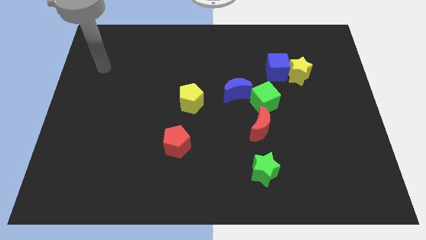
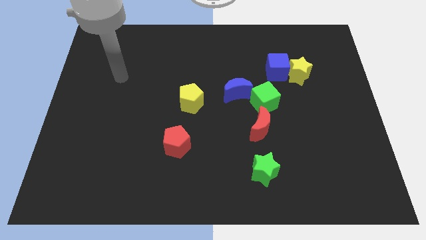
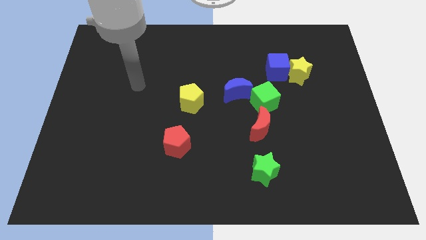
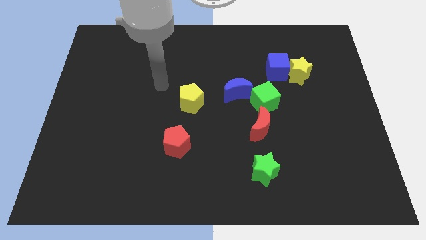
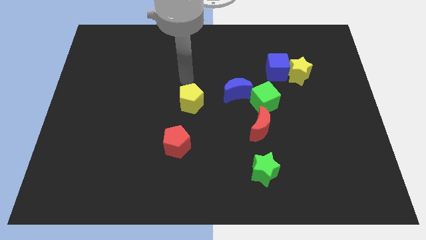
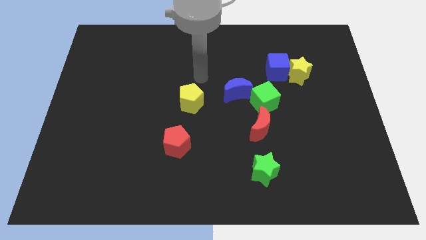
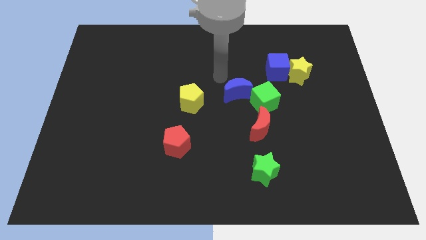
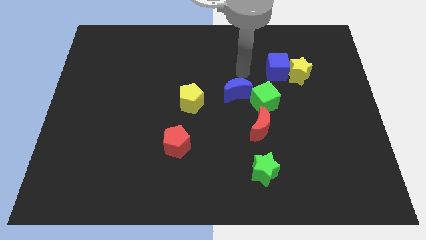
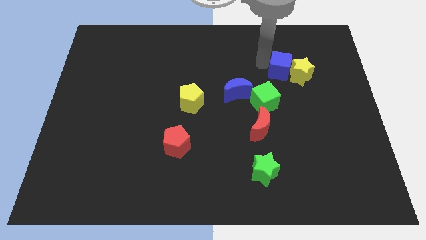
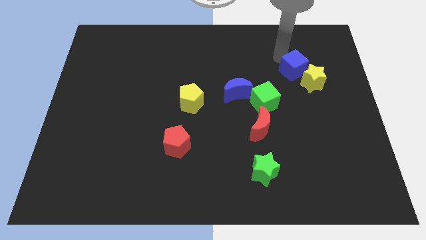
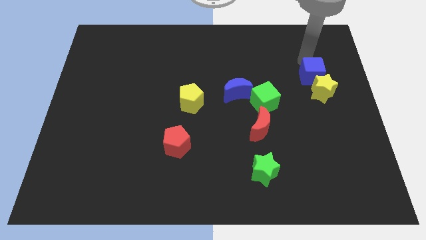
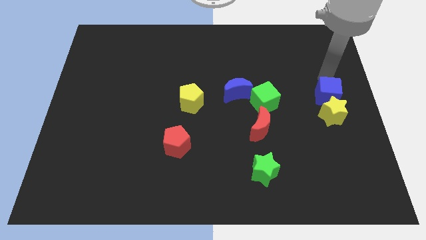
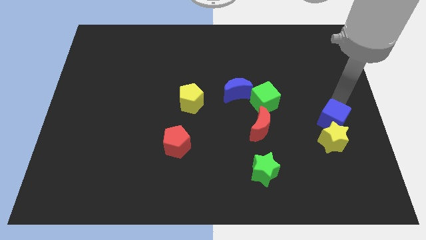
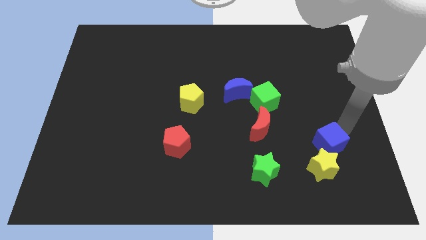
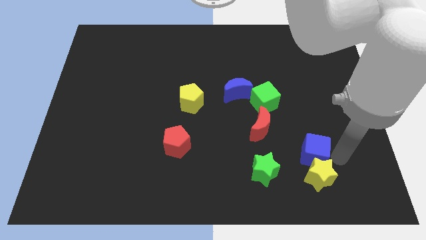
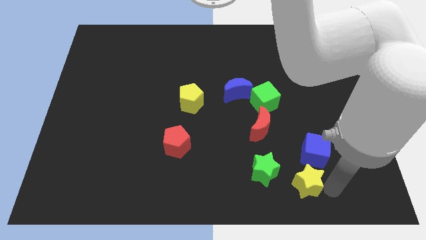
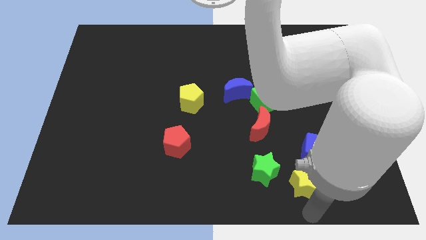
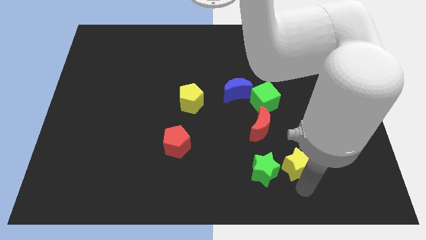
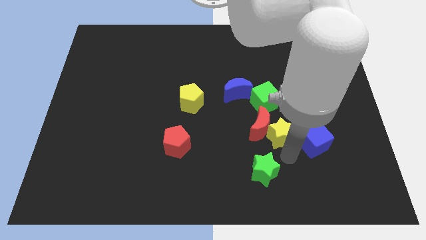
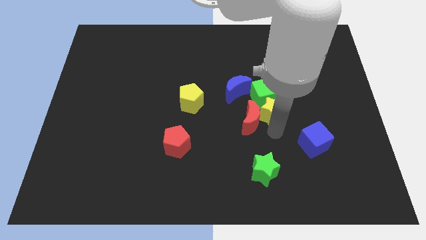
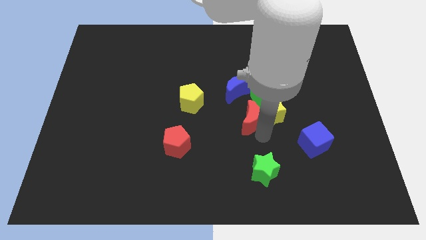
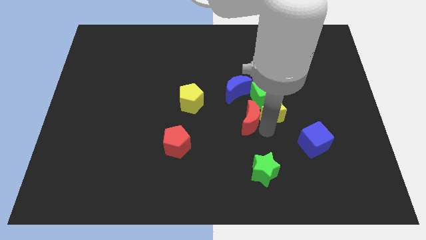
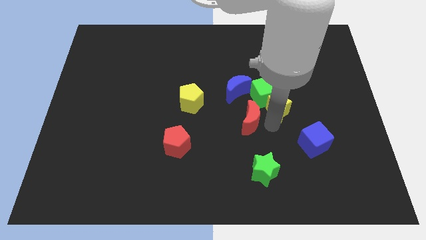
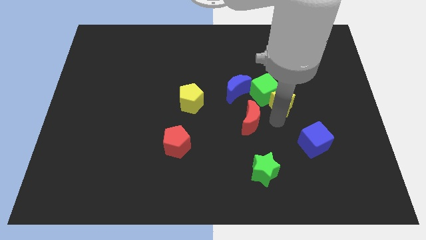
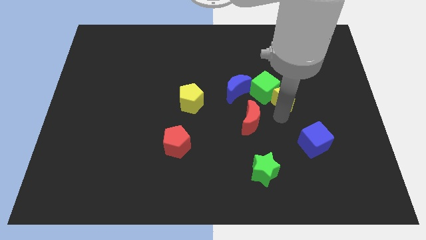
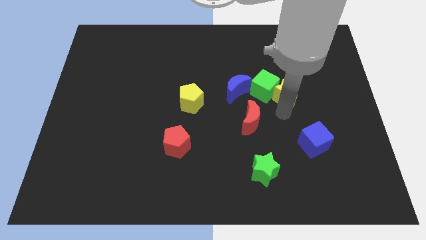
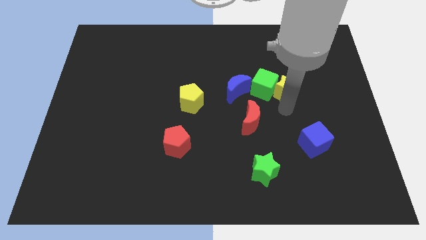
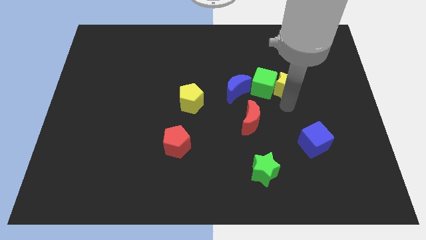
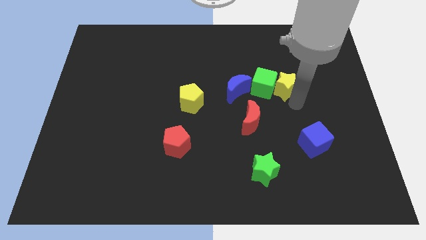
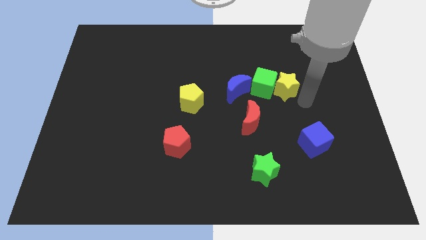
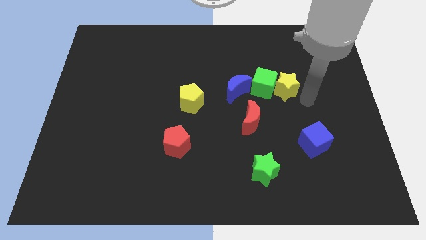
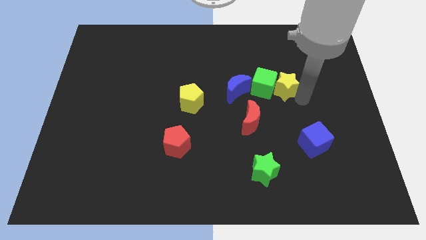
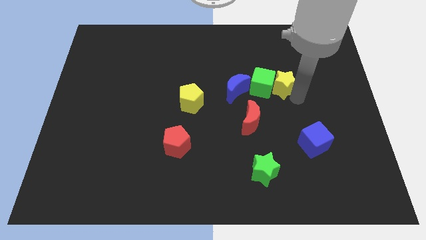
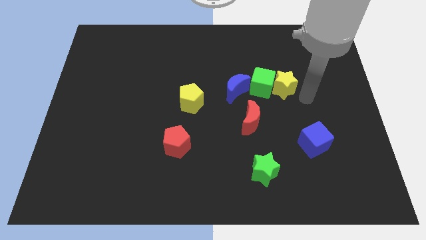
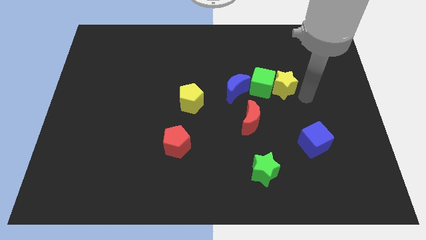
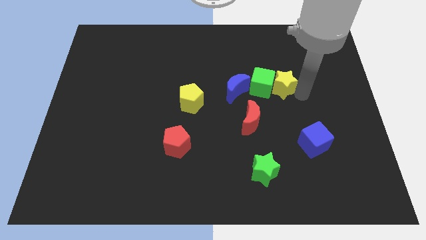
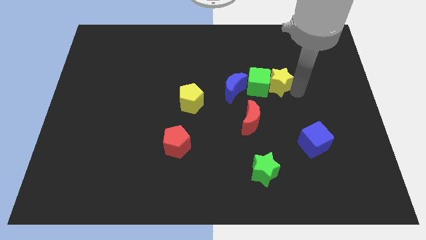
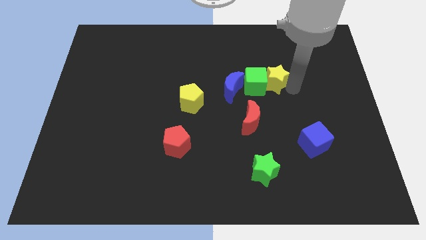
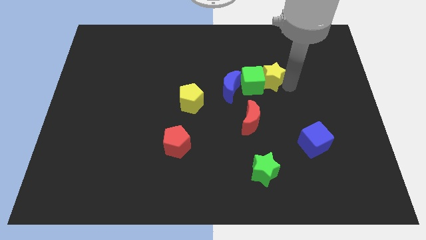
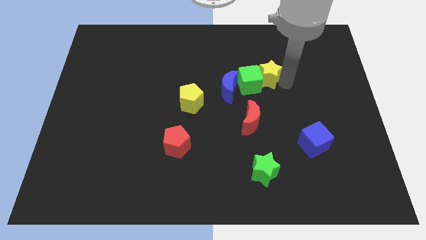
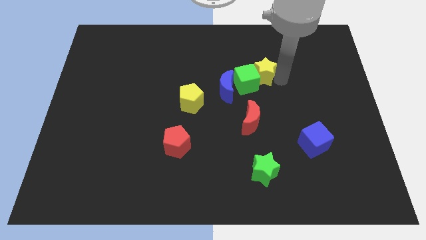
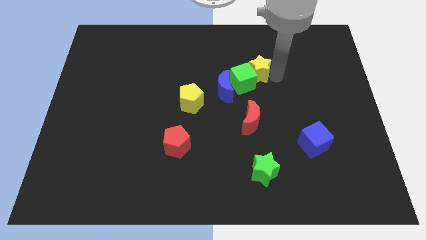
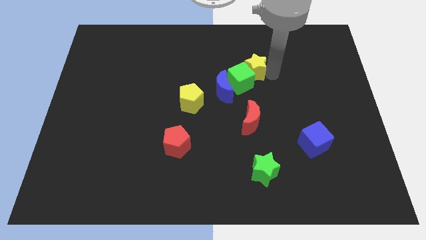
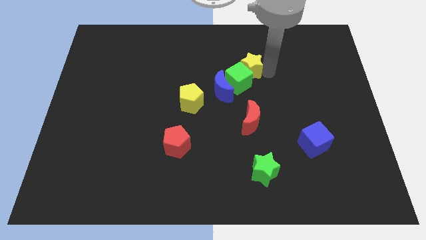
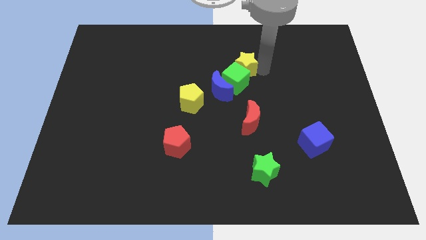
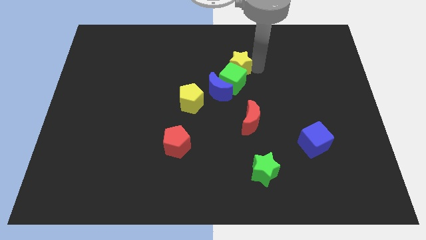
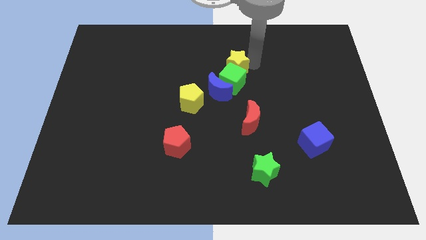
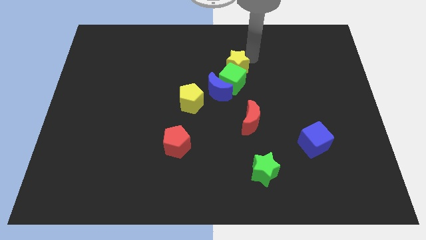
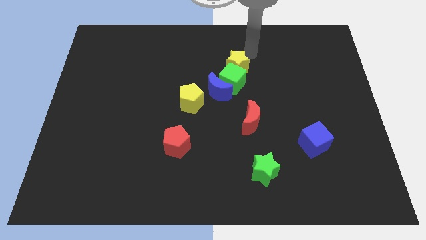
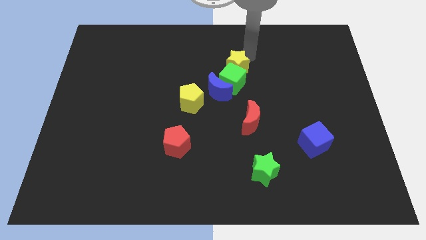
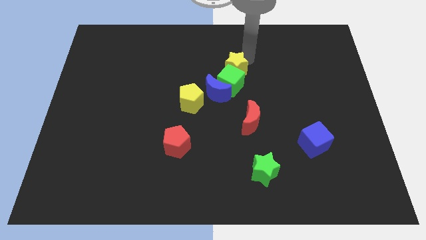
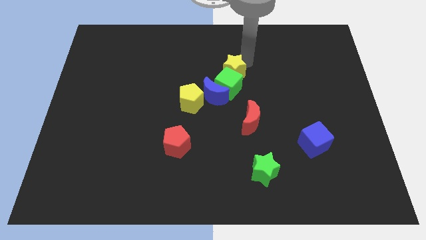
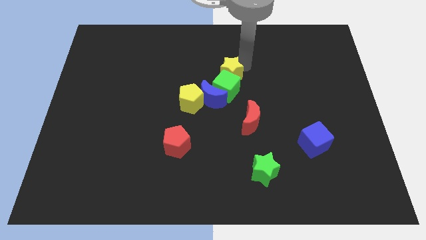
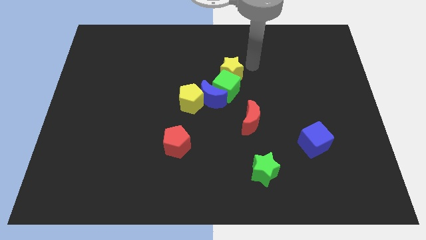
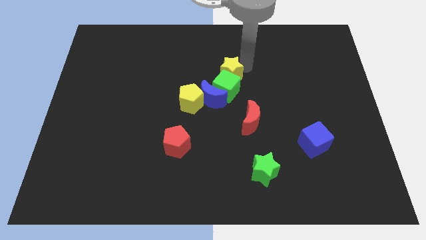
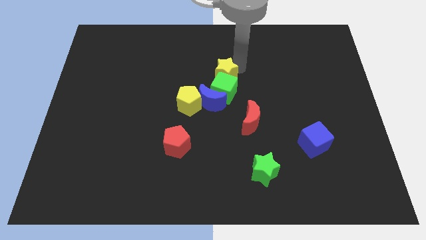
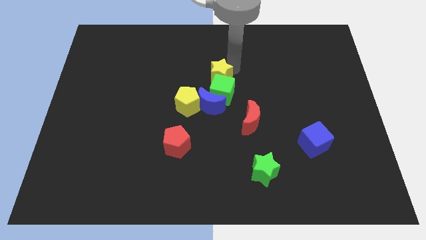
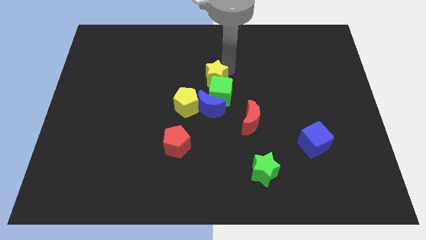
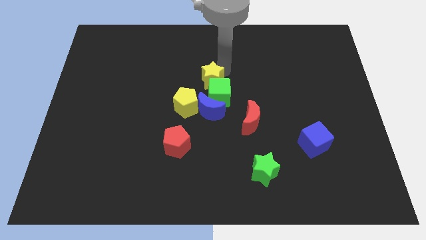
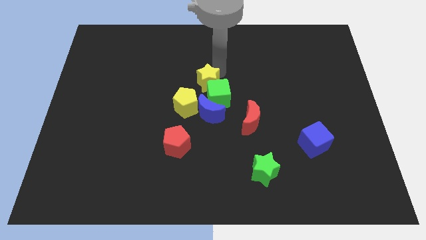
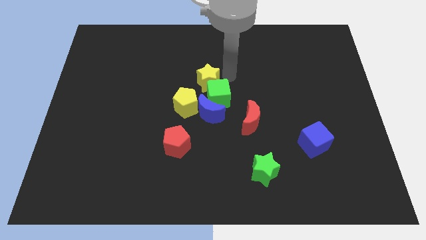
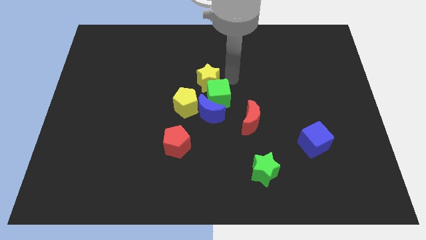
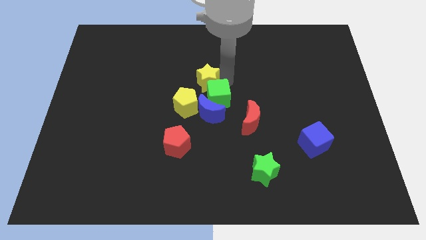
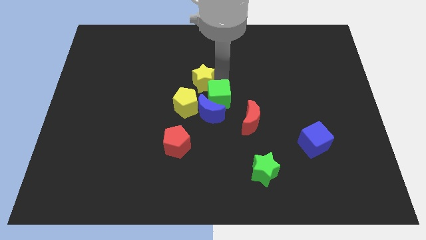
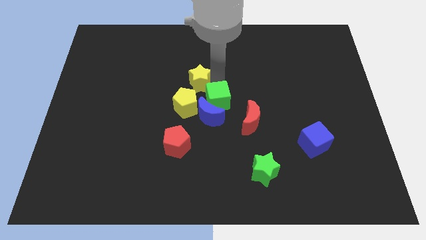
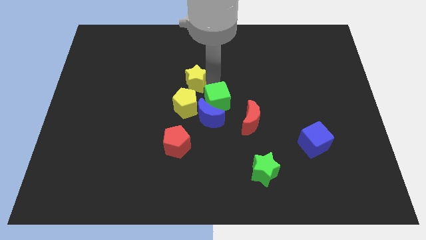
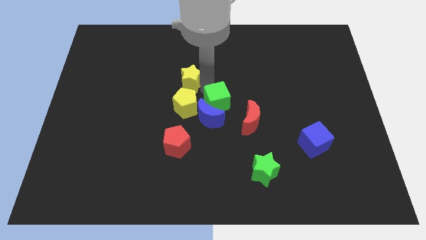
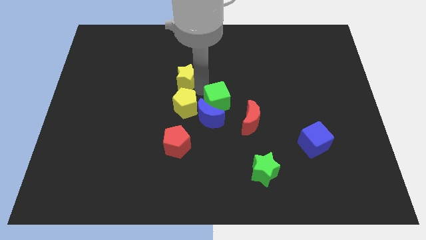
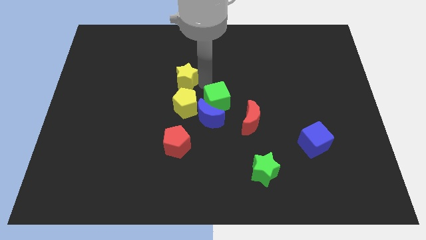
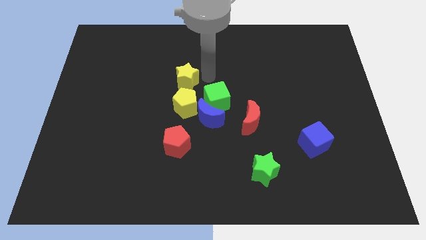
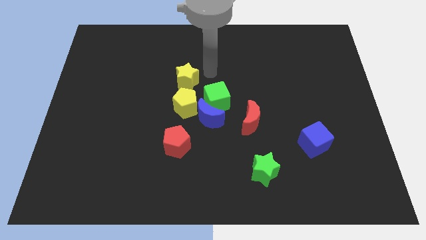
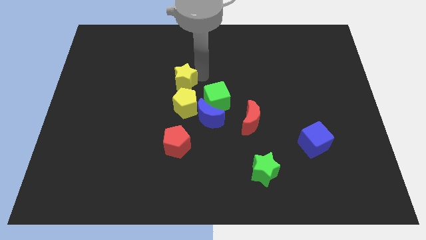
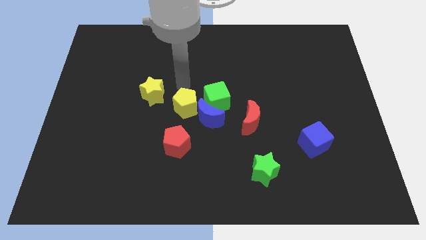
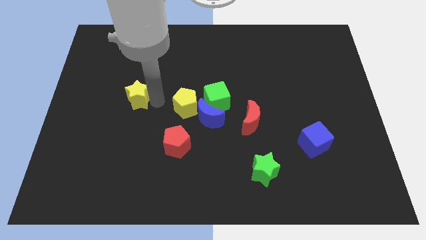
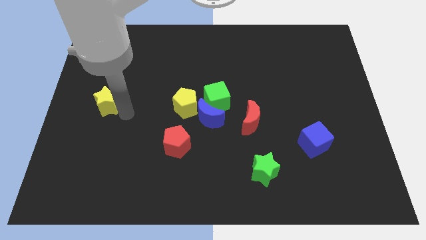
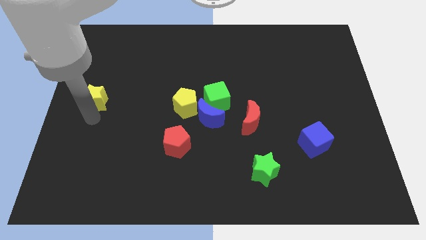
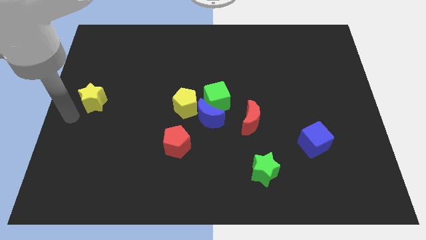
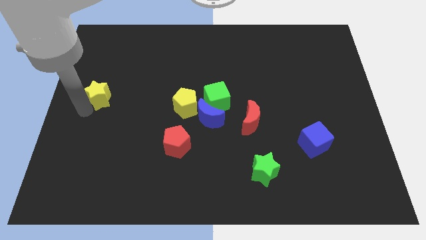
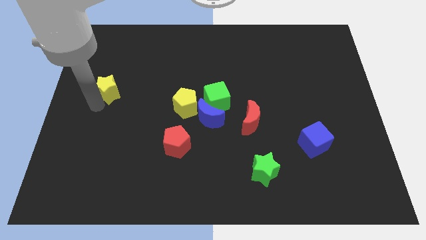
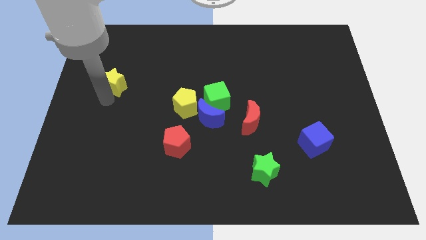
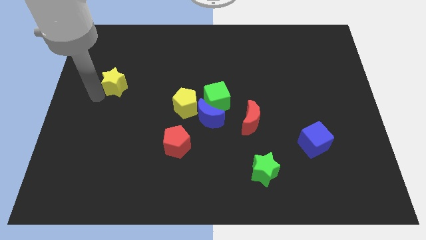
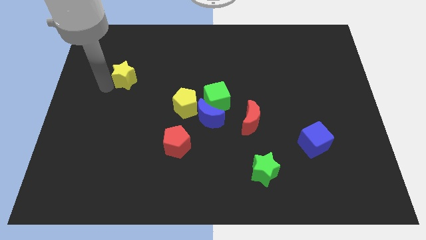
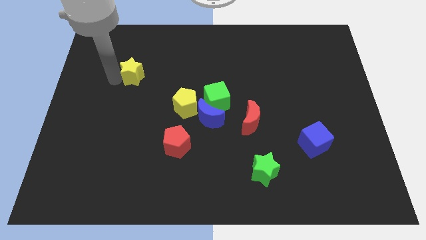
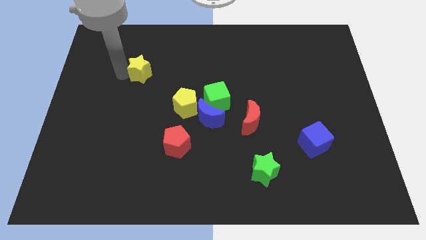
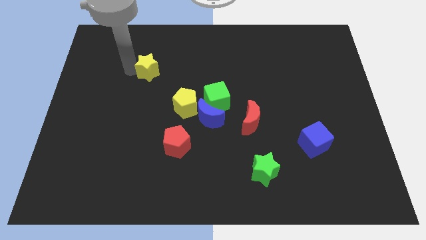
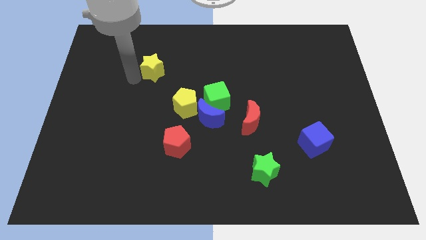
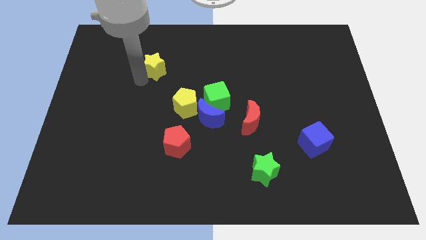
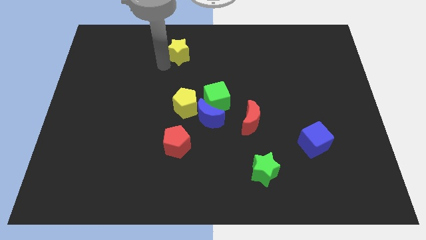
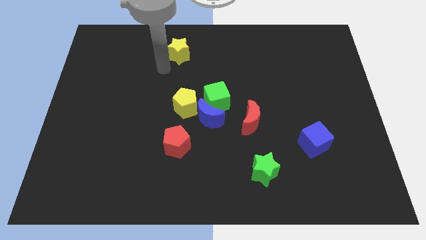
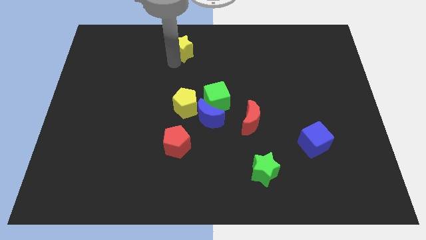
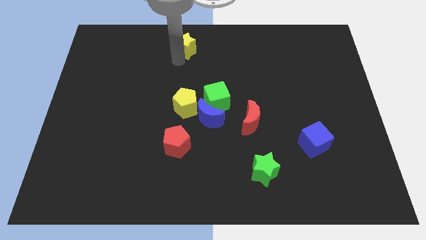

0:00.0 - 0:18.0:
put the yellow star to the top side
